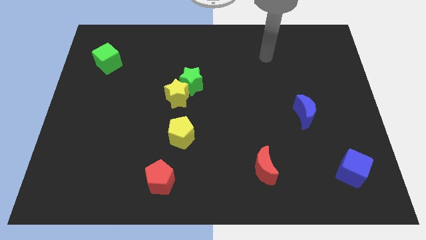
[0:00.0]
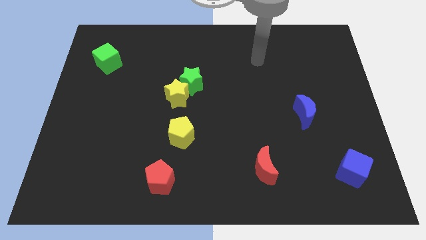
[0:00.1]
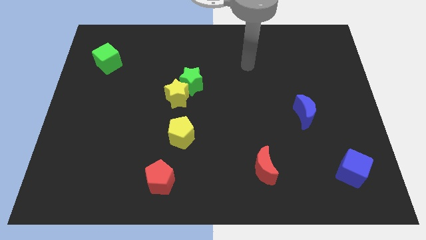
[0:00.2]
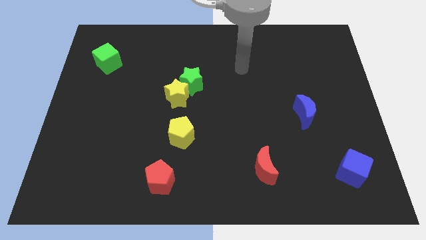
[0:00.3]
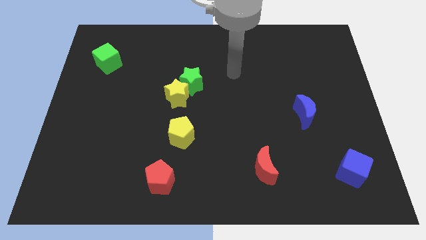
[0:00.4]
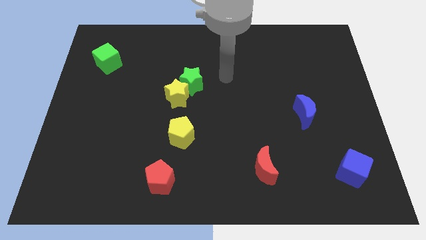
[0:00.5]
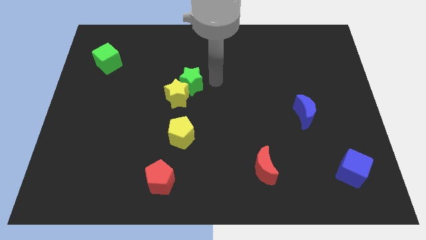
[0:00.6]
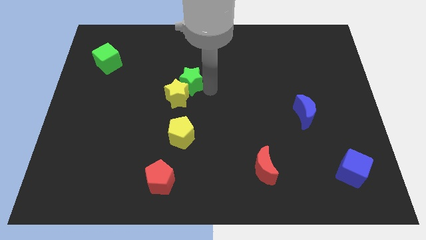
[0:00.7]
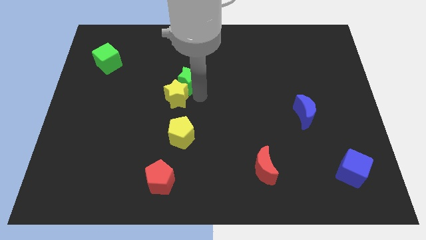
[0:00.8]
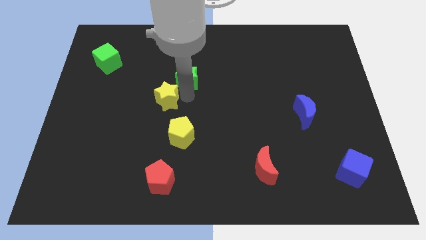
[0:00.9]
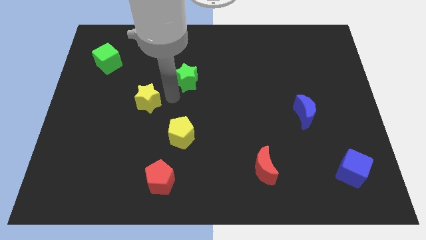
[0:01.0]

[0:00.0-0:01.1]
pull the green star apart from the yellow star

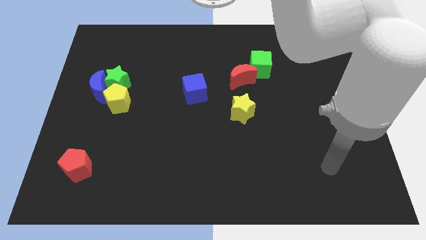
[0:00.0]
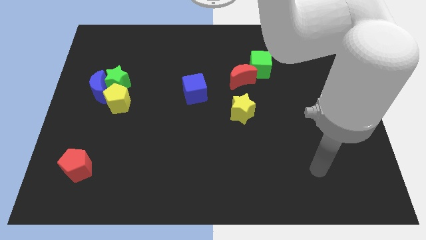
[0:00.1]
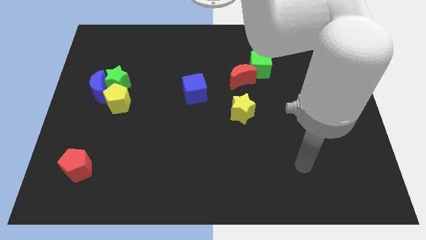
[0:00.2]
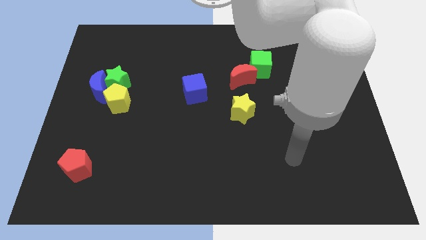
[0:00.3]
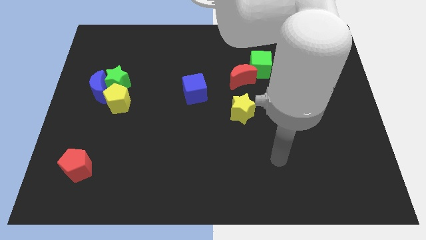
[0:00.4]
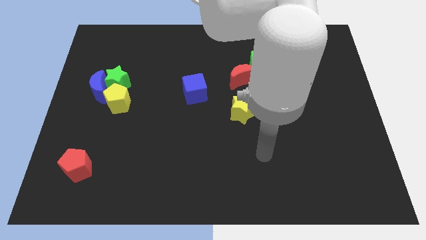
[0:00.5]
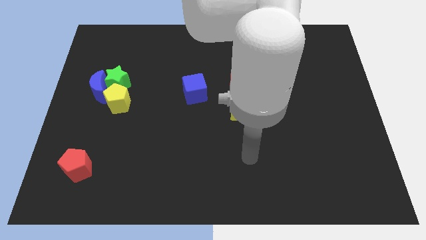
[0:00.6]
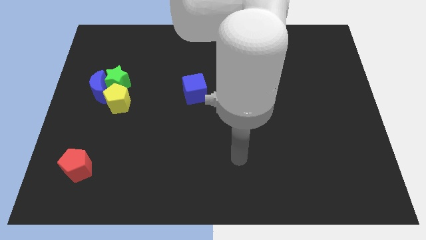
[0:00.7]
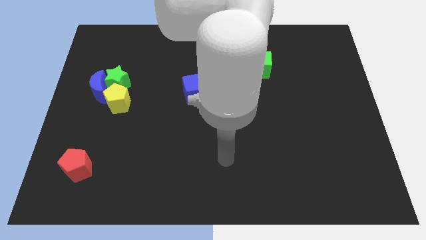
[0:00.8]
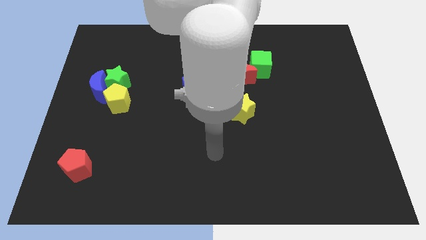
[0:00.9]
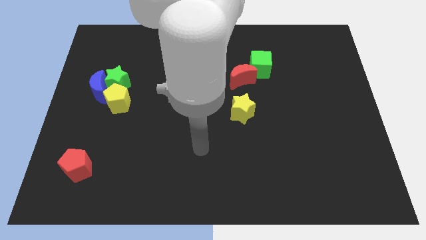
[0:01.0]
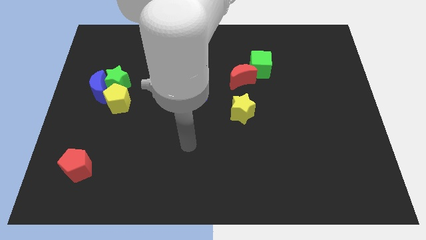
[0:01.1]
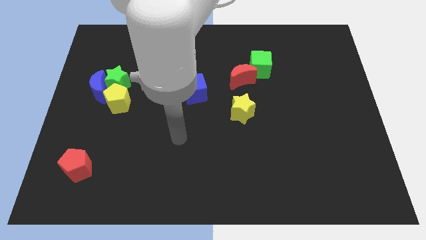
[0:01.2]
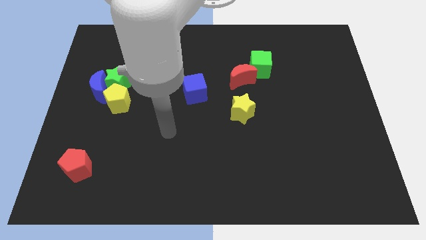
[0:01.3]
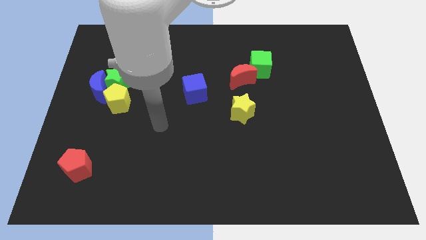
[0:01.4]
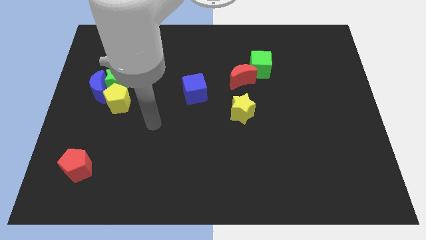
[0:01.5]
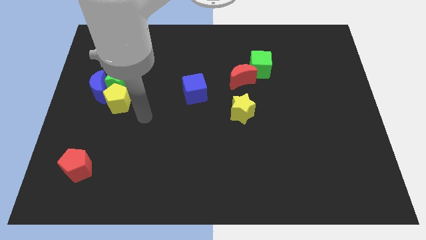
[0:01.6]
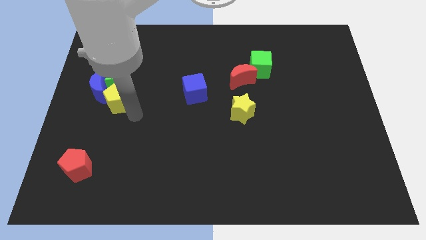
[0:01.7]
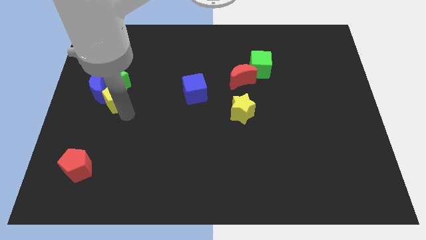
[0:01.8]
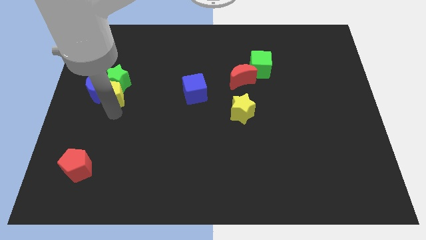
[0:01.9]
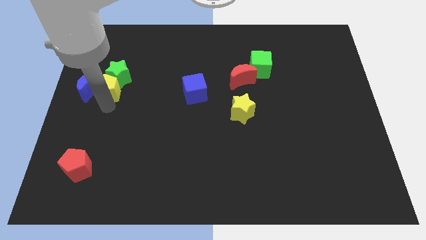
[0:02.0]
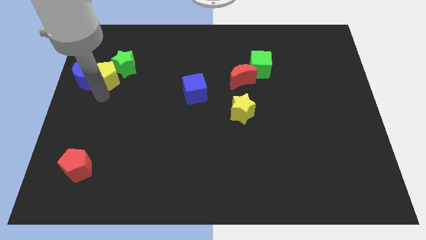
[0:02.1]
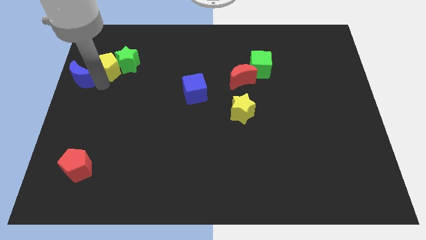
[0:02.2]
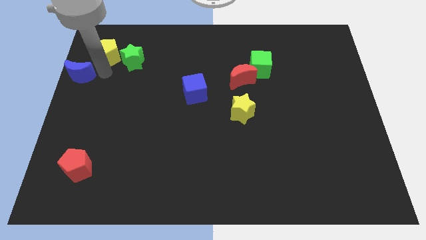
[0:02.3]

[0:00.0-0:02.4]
pull the green star apart from the blue moon and yellow pentagon

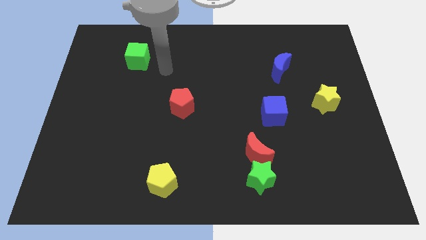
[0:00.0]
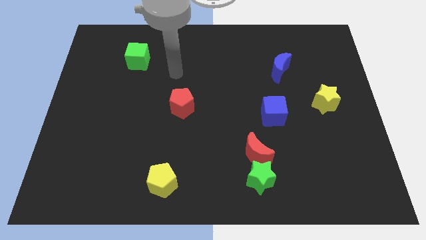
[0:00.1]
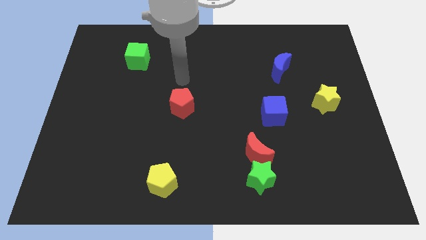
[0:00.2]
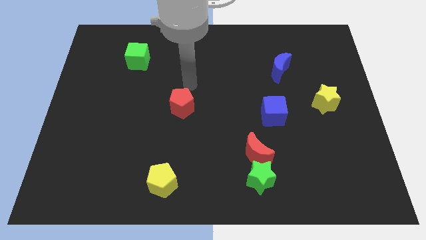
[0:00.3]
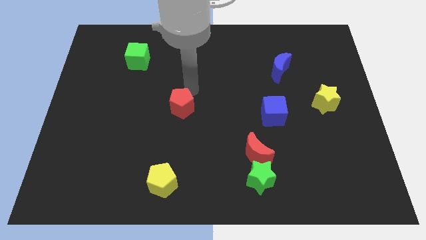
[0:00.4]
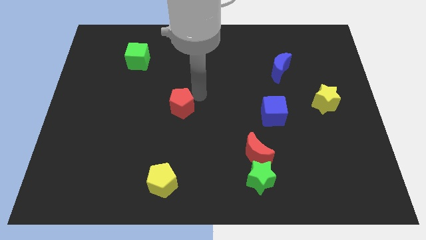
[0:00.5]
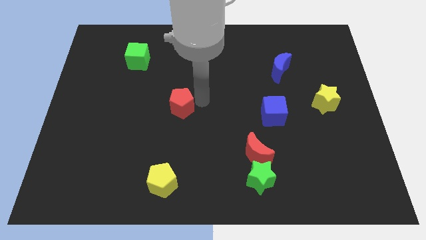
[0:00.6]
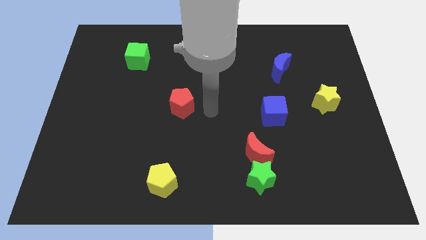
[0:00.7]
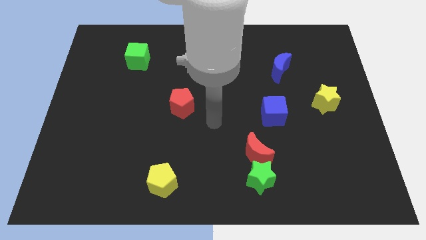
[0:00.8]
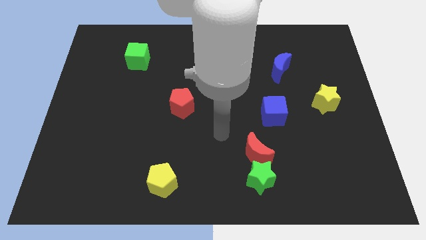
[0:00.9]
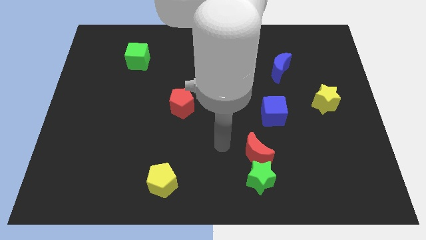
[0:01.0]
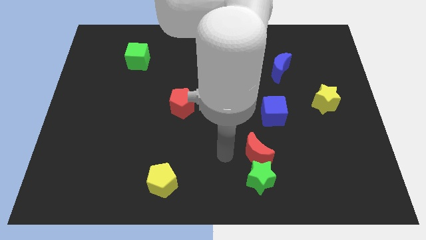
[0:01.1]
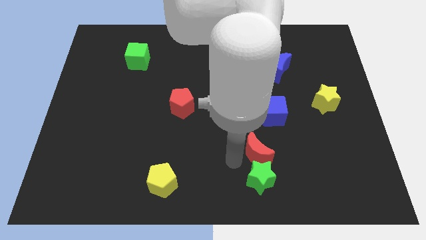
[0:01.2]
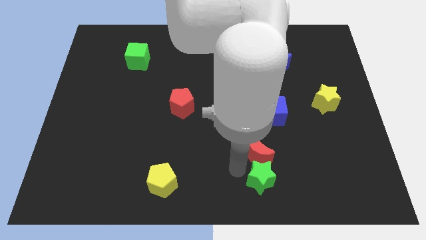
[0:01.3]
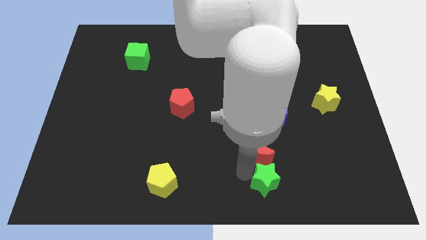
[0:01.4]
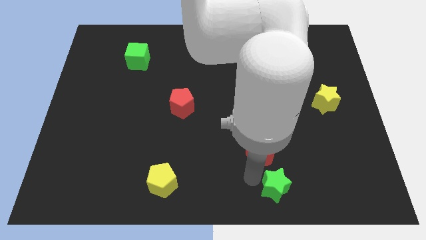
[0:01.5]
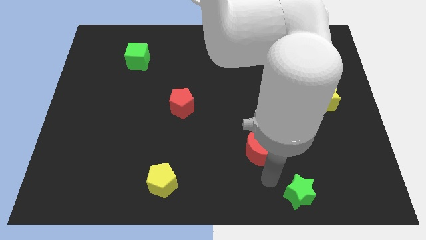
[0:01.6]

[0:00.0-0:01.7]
move the red moon away from the green star

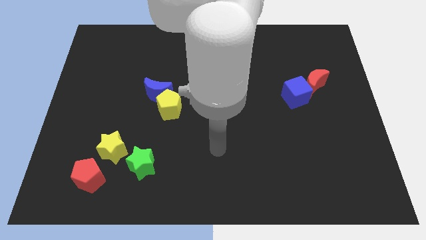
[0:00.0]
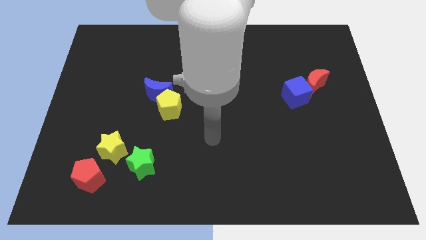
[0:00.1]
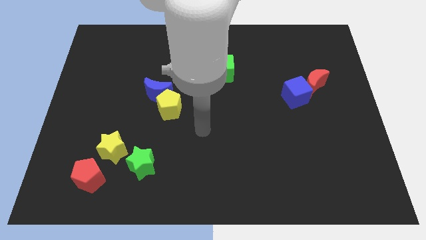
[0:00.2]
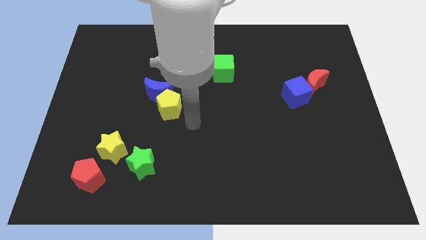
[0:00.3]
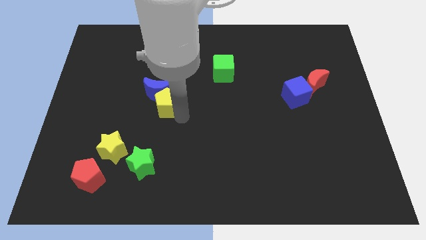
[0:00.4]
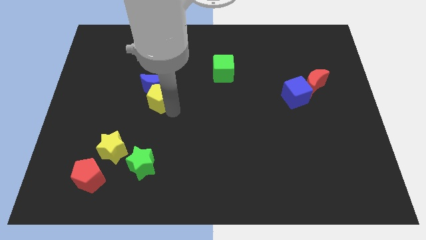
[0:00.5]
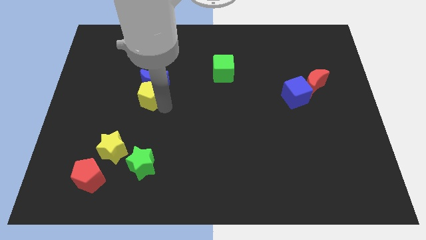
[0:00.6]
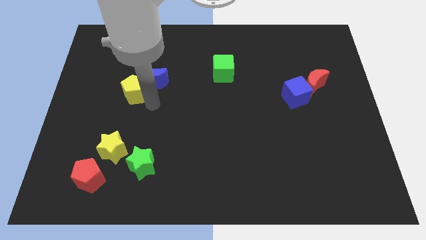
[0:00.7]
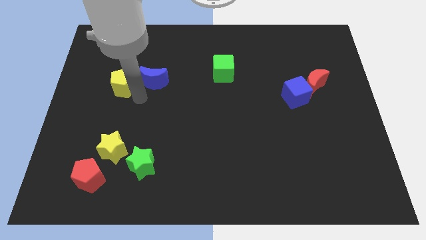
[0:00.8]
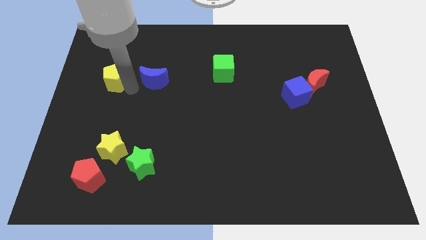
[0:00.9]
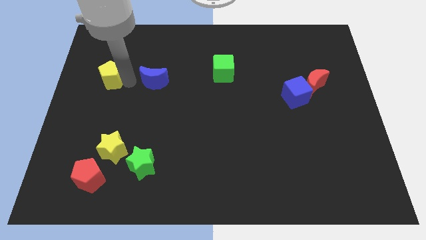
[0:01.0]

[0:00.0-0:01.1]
move the blue moon away from the yellow pentagon

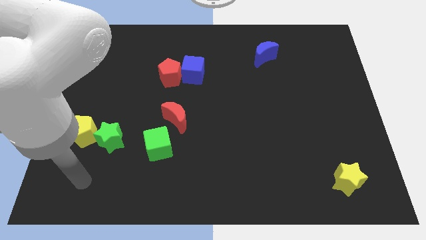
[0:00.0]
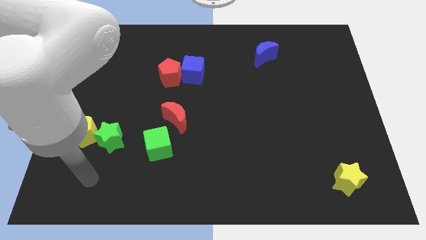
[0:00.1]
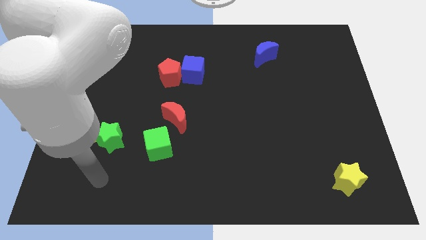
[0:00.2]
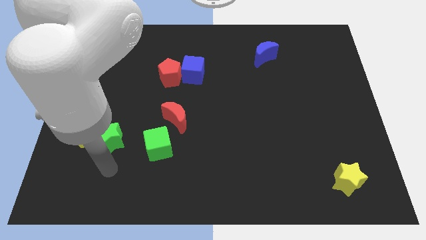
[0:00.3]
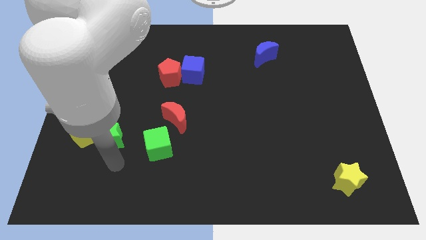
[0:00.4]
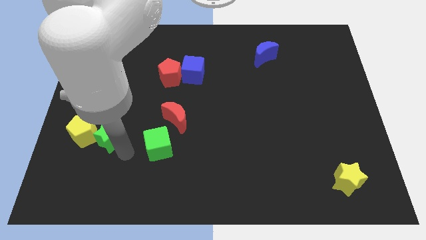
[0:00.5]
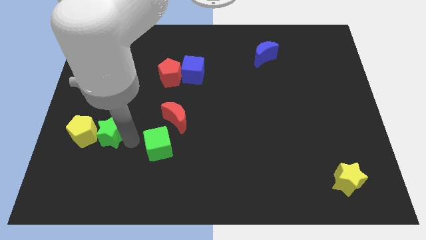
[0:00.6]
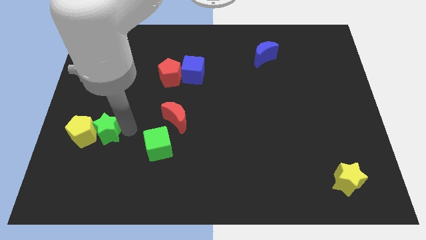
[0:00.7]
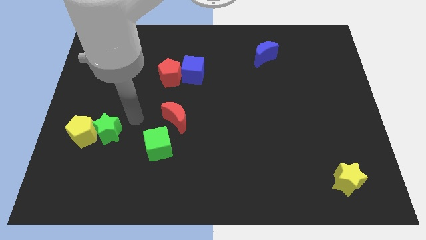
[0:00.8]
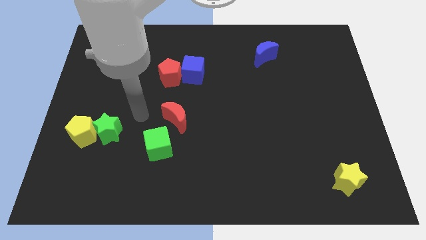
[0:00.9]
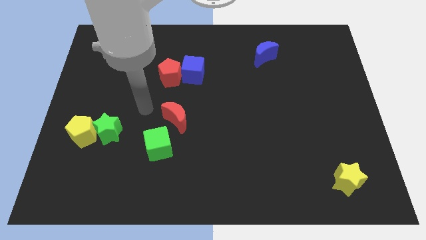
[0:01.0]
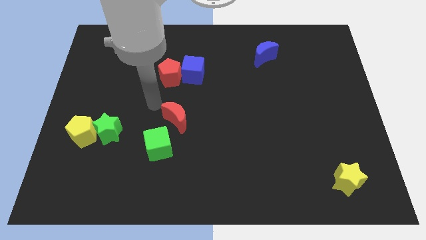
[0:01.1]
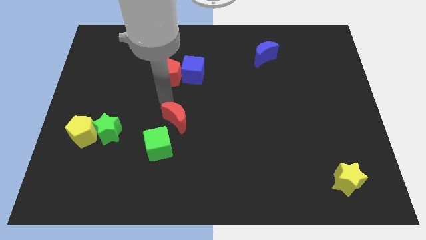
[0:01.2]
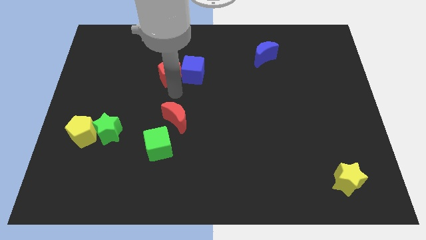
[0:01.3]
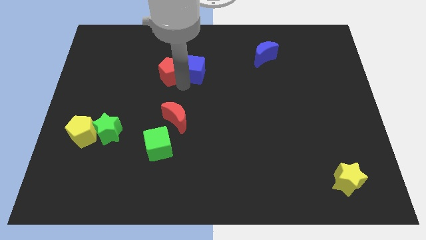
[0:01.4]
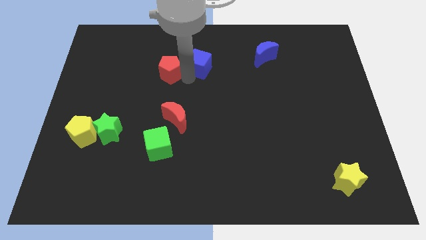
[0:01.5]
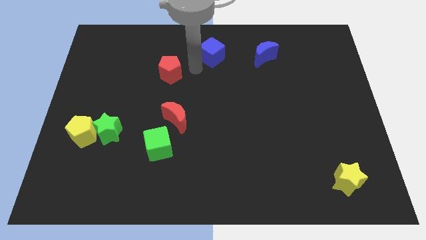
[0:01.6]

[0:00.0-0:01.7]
separate the red pentagon from the blue cube

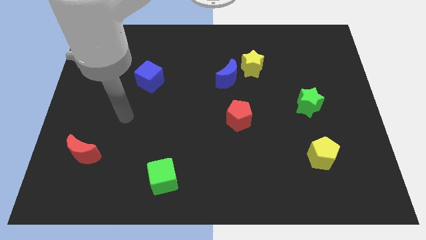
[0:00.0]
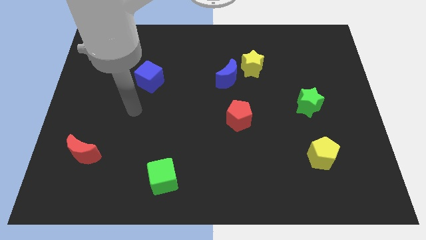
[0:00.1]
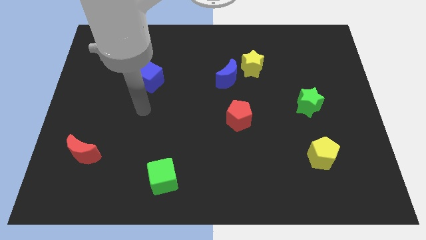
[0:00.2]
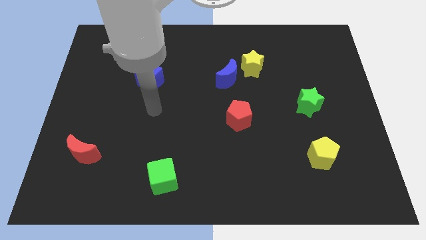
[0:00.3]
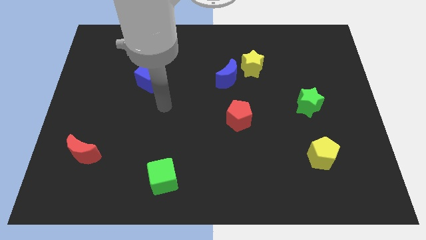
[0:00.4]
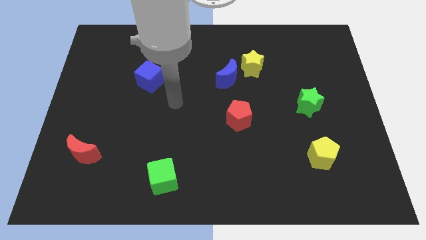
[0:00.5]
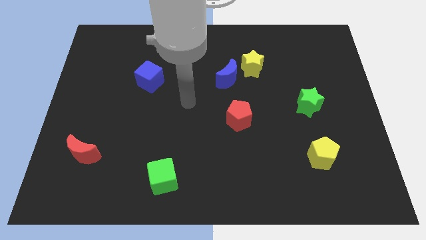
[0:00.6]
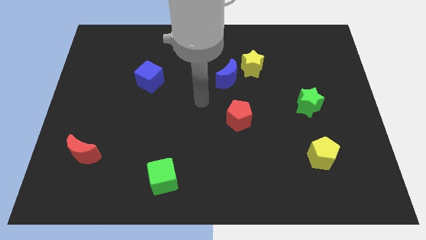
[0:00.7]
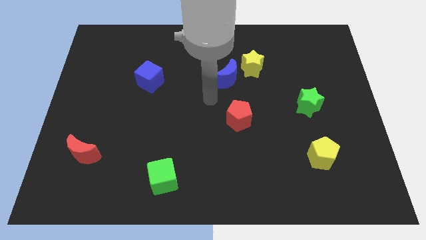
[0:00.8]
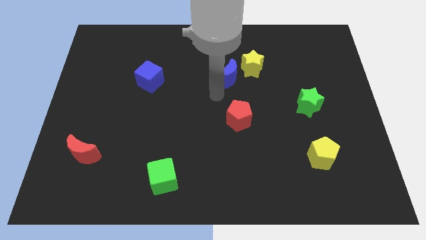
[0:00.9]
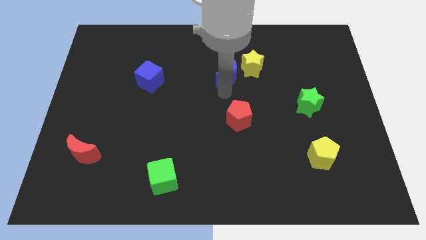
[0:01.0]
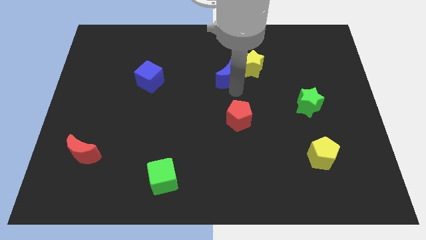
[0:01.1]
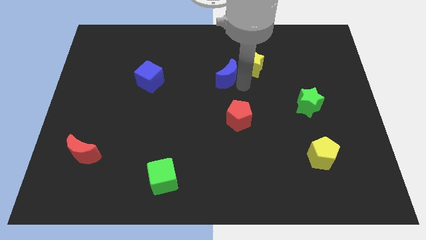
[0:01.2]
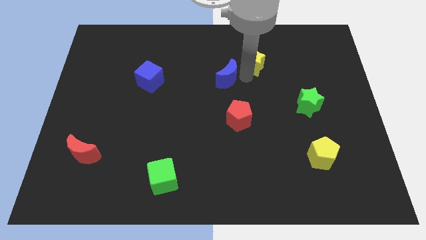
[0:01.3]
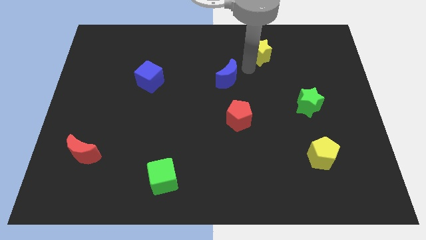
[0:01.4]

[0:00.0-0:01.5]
move the blue moon away from the yellow star
